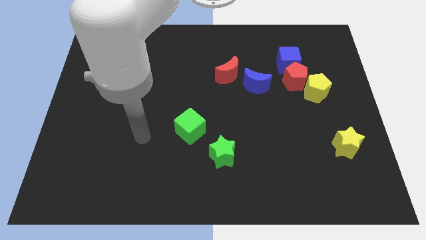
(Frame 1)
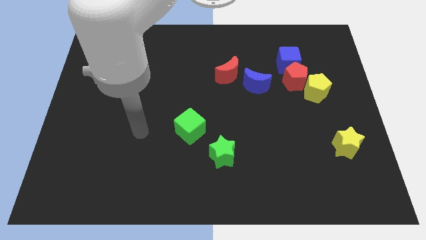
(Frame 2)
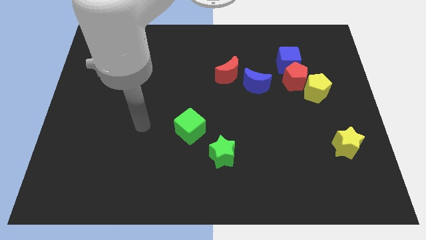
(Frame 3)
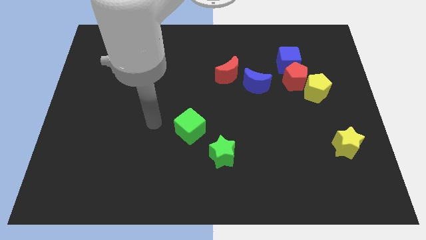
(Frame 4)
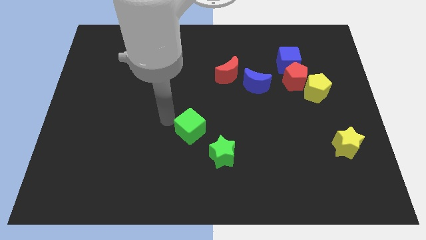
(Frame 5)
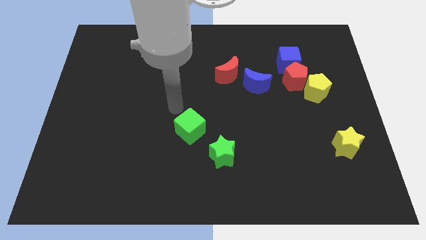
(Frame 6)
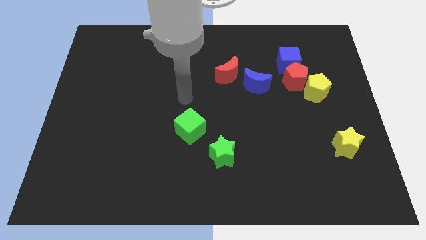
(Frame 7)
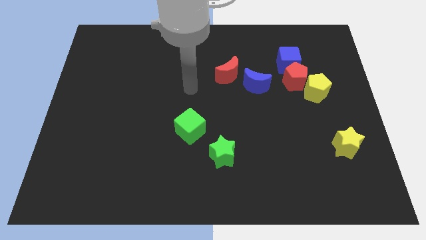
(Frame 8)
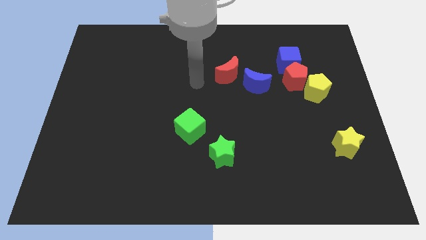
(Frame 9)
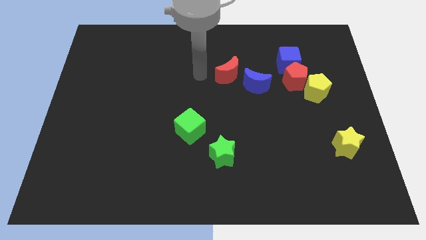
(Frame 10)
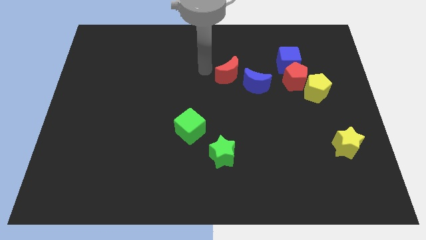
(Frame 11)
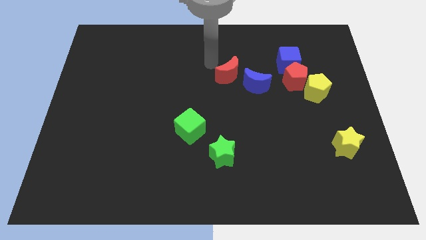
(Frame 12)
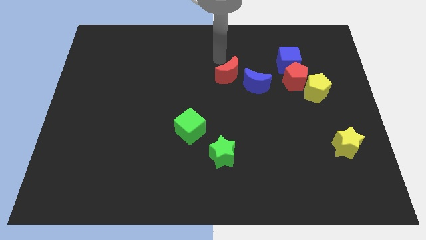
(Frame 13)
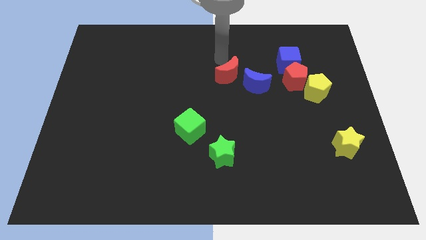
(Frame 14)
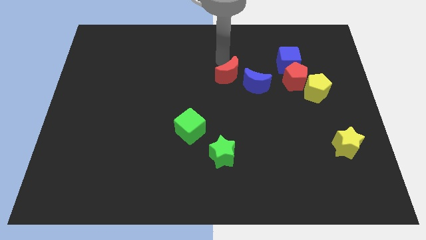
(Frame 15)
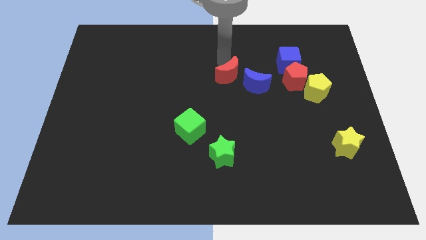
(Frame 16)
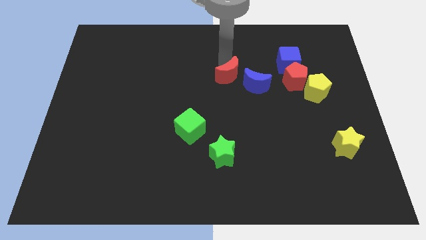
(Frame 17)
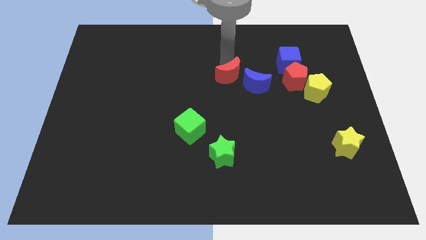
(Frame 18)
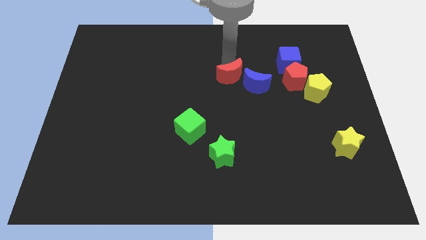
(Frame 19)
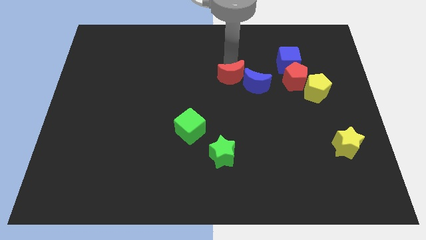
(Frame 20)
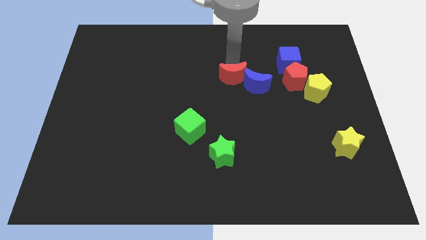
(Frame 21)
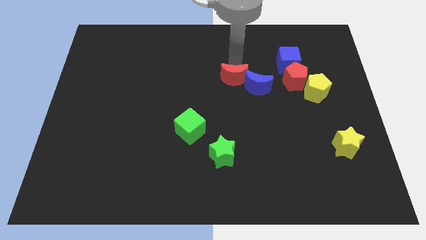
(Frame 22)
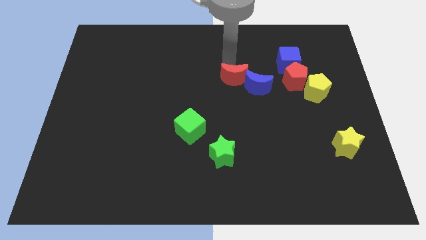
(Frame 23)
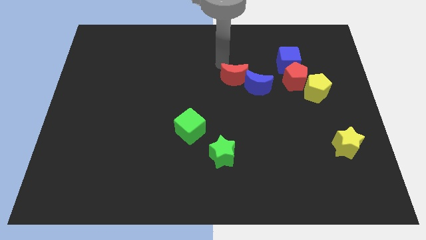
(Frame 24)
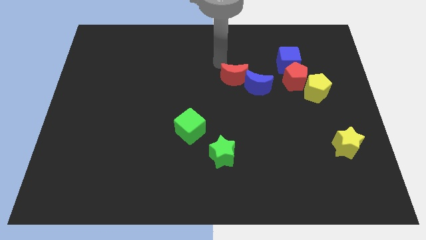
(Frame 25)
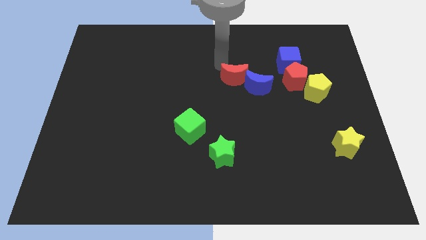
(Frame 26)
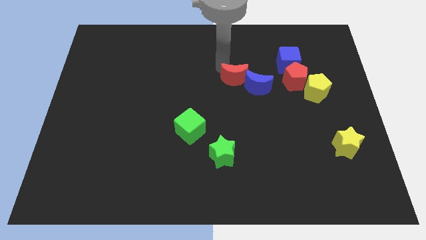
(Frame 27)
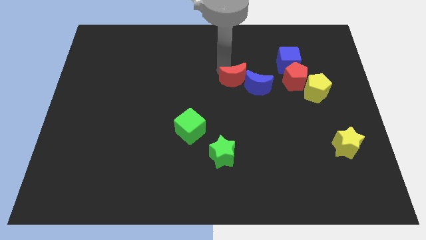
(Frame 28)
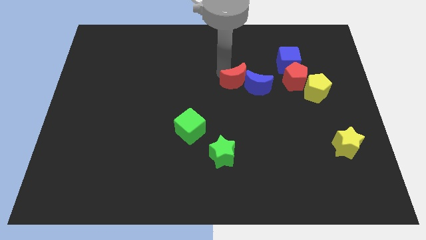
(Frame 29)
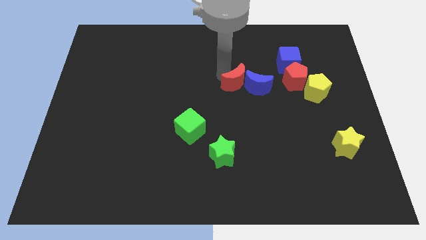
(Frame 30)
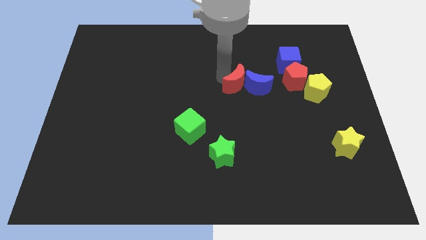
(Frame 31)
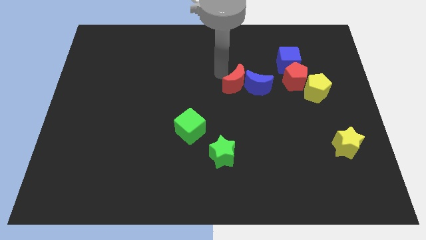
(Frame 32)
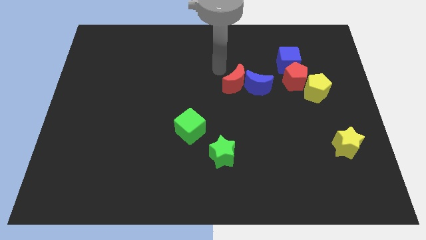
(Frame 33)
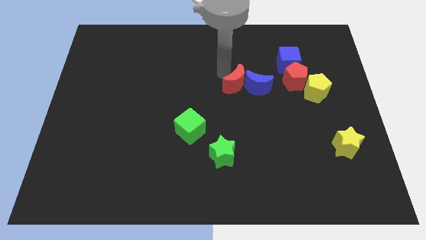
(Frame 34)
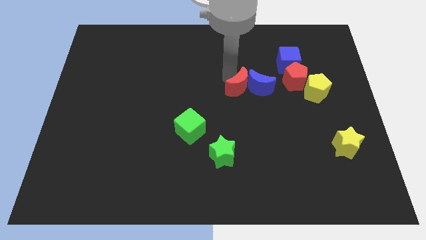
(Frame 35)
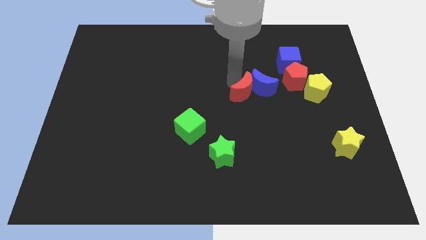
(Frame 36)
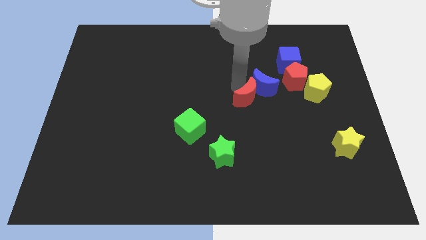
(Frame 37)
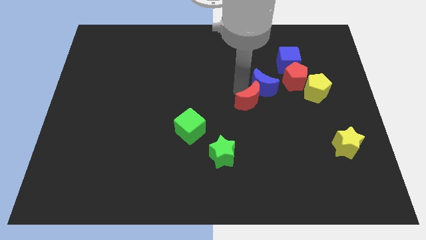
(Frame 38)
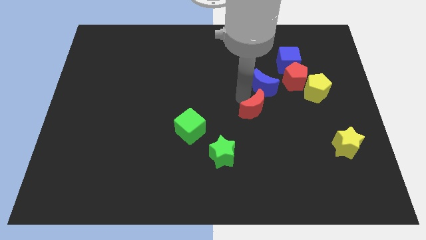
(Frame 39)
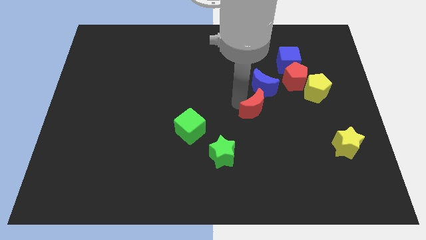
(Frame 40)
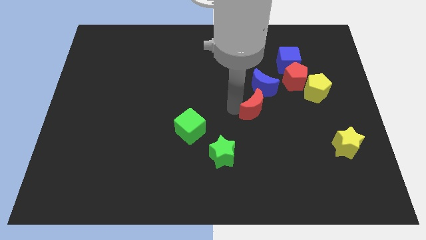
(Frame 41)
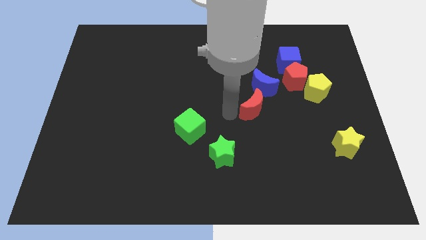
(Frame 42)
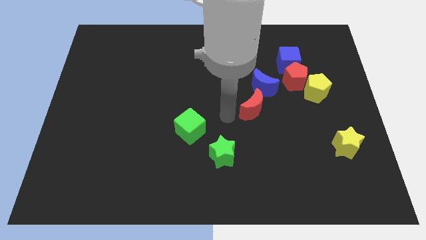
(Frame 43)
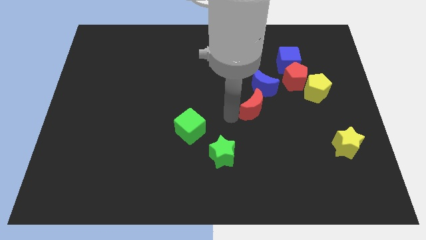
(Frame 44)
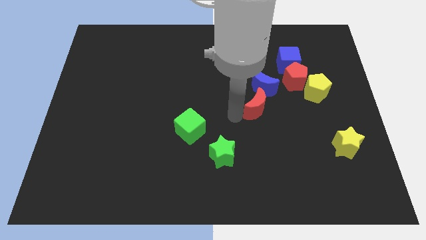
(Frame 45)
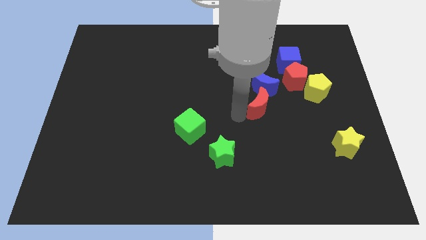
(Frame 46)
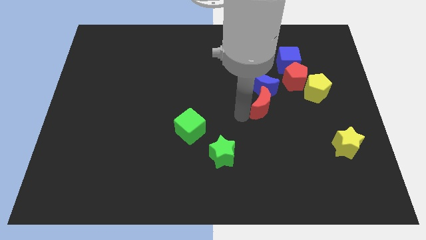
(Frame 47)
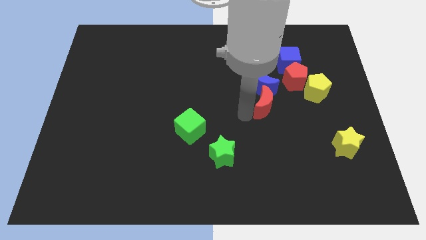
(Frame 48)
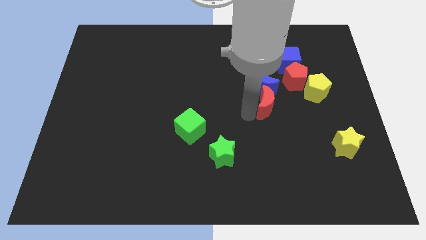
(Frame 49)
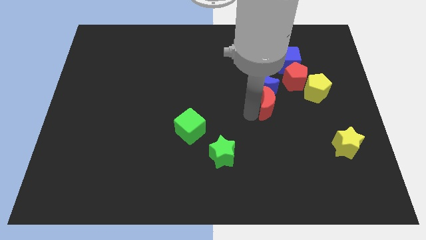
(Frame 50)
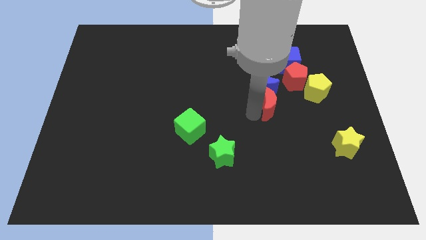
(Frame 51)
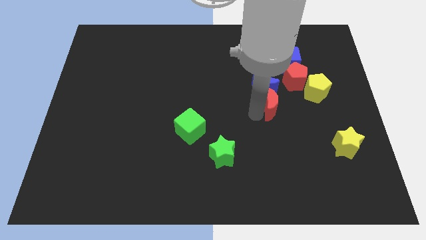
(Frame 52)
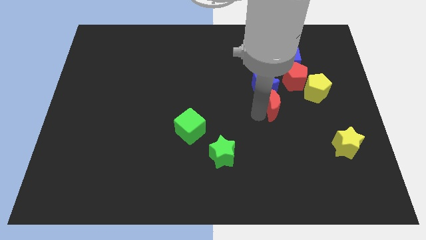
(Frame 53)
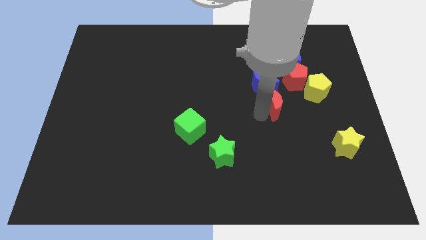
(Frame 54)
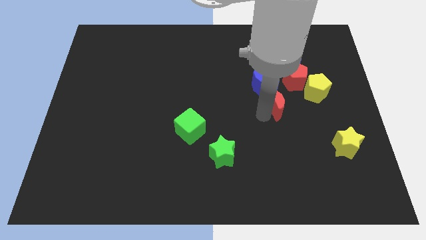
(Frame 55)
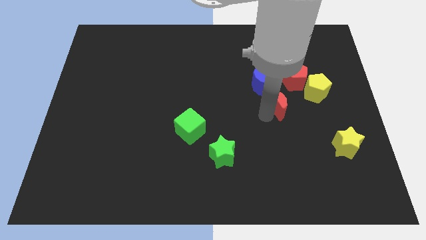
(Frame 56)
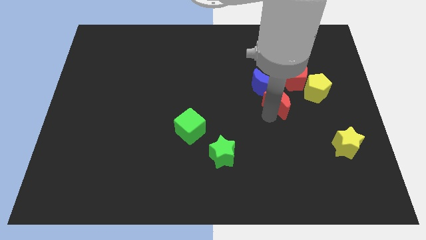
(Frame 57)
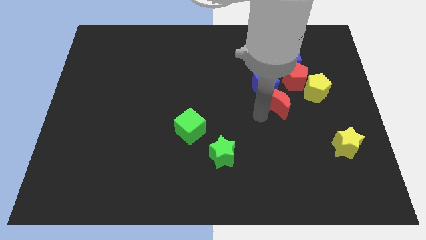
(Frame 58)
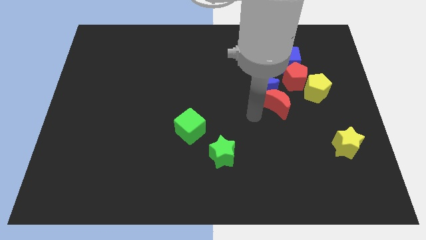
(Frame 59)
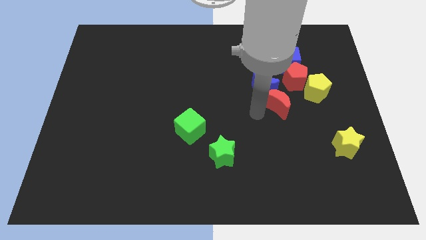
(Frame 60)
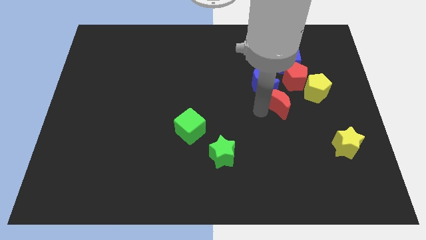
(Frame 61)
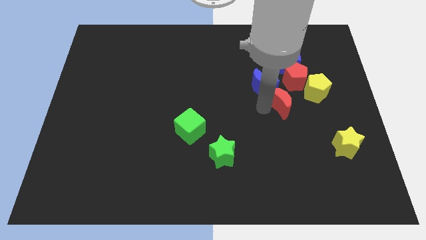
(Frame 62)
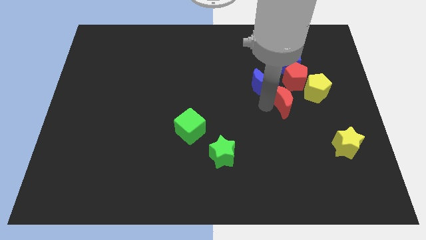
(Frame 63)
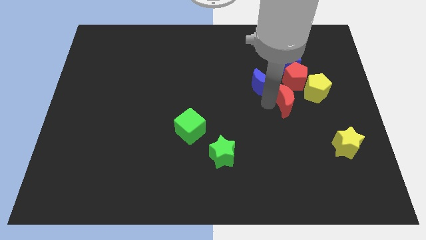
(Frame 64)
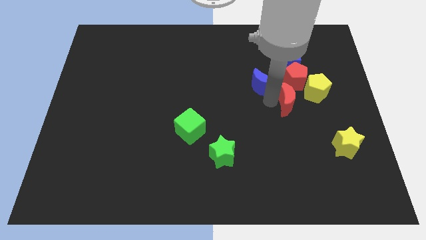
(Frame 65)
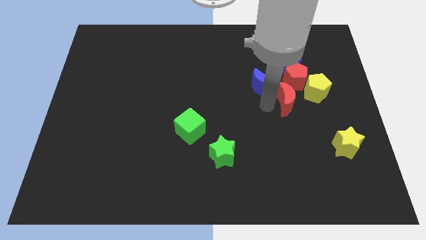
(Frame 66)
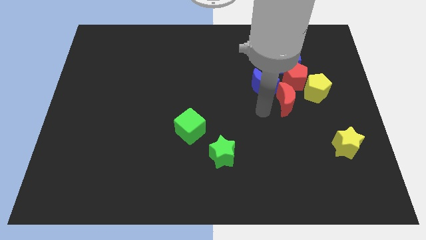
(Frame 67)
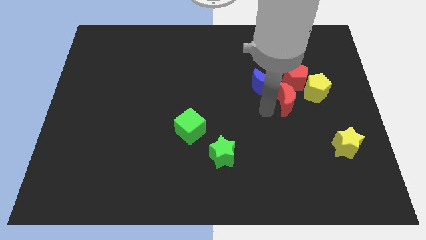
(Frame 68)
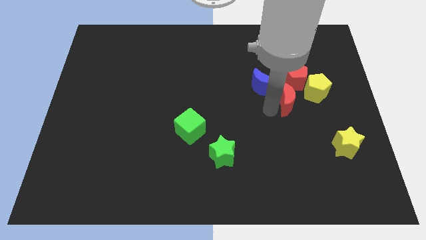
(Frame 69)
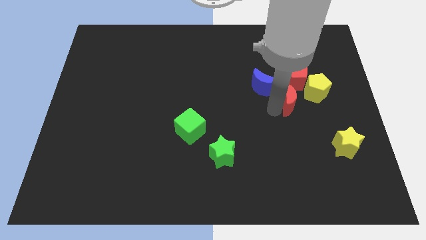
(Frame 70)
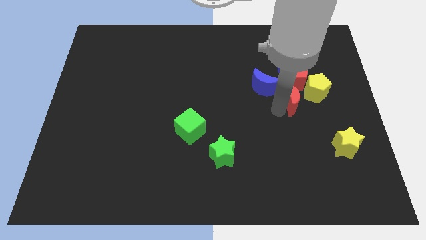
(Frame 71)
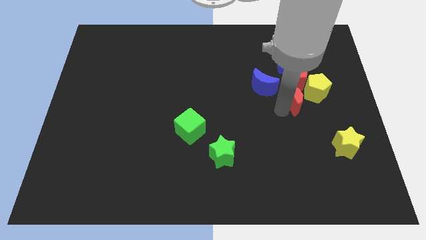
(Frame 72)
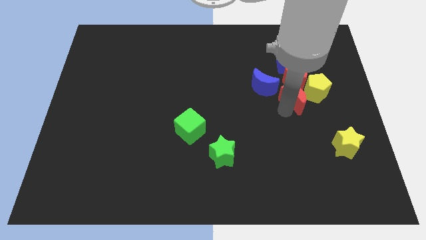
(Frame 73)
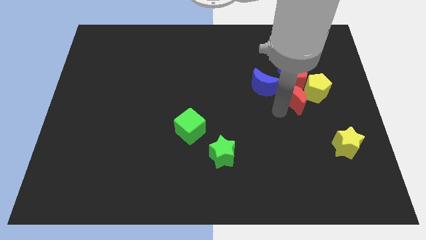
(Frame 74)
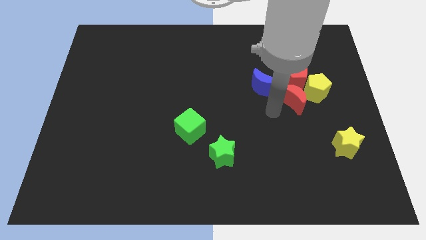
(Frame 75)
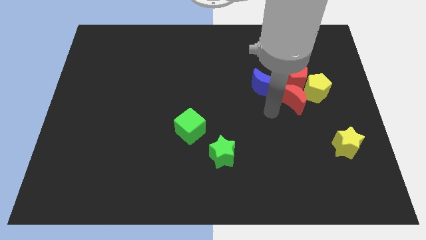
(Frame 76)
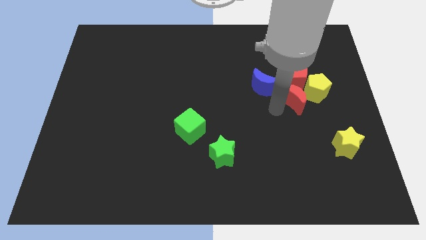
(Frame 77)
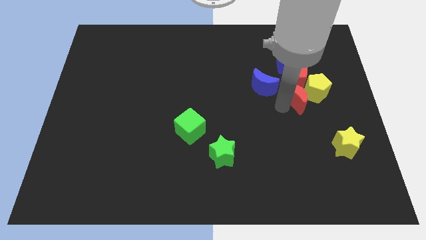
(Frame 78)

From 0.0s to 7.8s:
slide the red moon close to the yellow pentagon

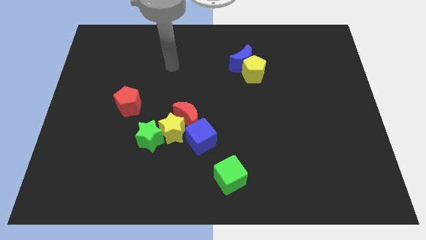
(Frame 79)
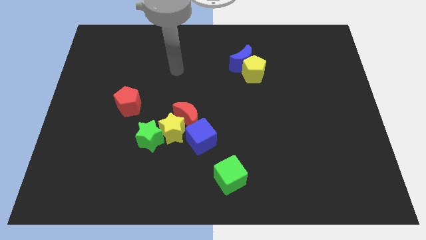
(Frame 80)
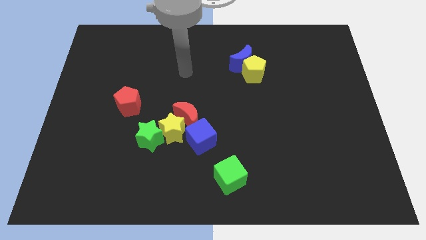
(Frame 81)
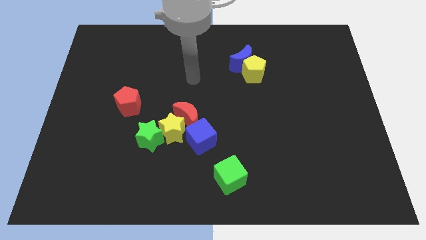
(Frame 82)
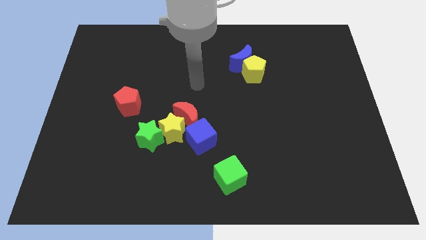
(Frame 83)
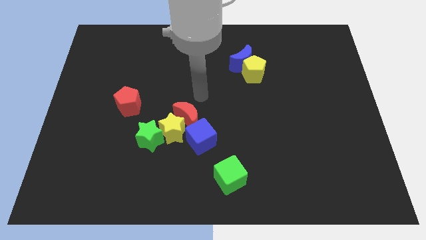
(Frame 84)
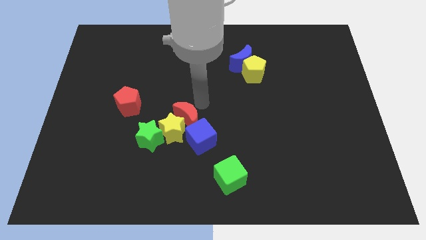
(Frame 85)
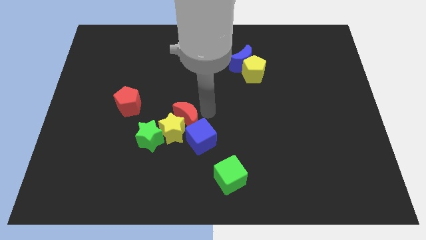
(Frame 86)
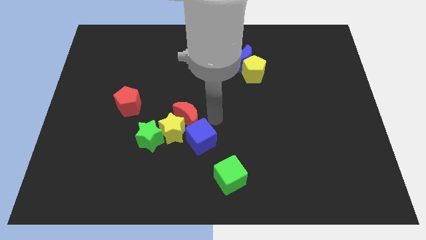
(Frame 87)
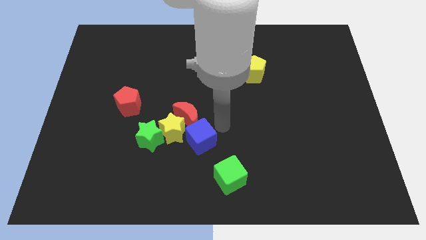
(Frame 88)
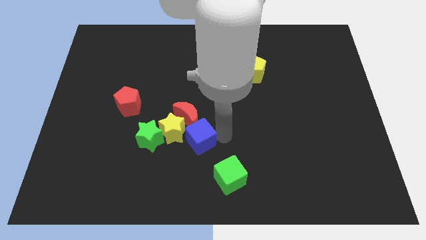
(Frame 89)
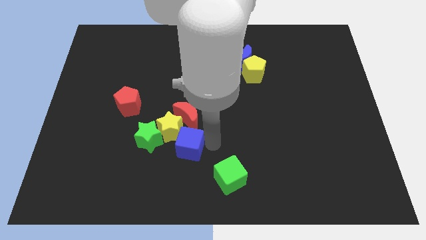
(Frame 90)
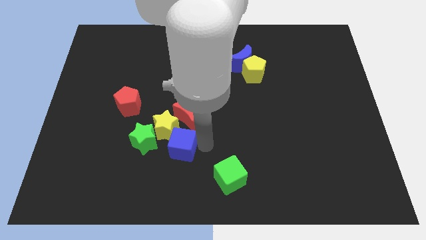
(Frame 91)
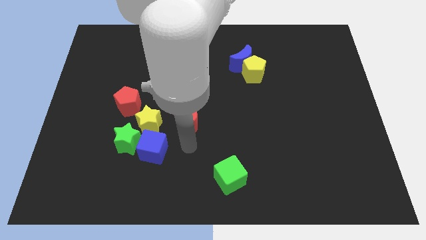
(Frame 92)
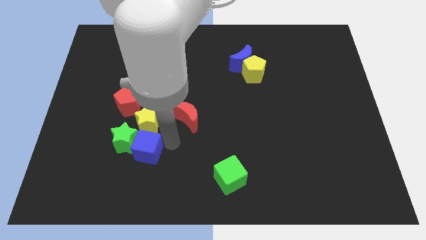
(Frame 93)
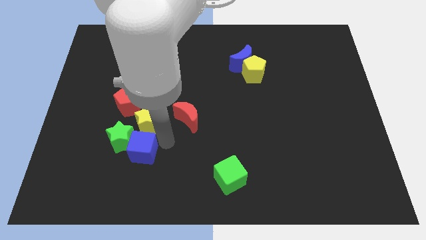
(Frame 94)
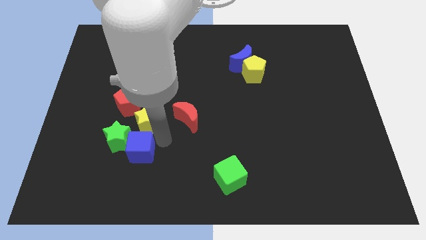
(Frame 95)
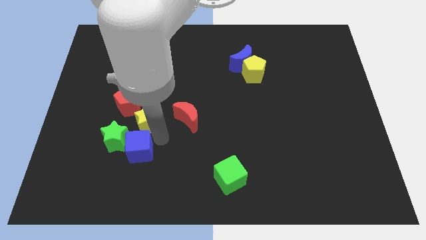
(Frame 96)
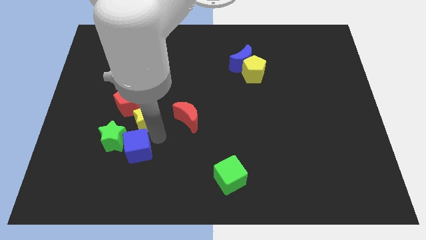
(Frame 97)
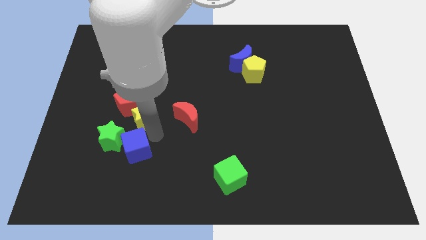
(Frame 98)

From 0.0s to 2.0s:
move the yellow star next to the red pentagon
